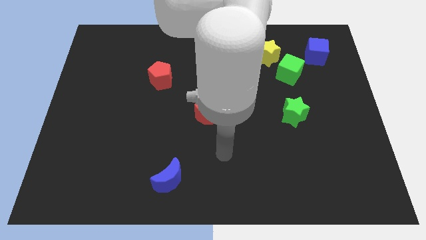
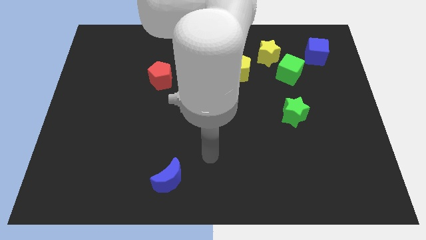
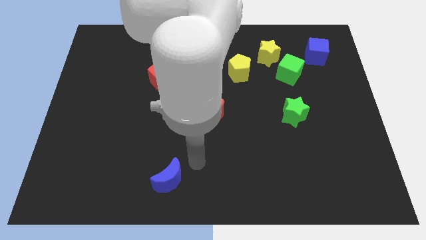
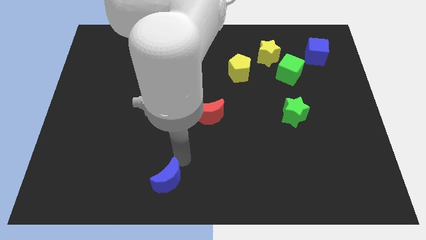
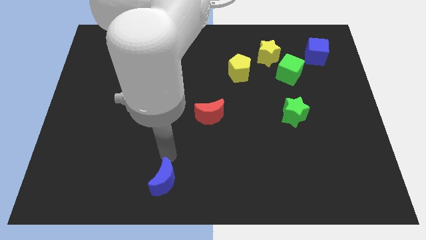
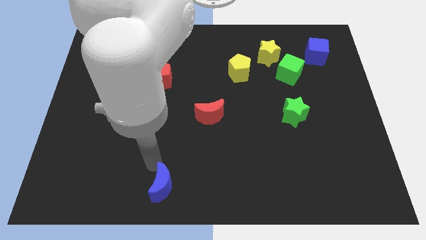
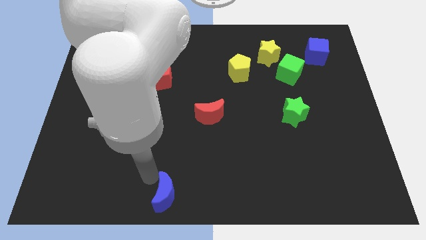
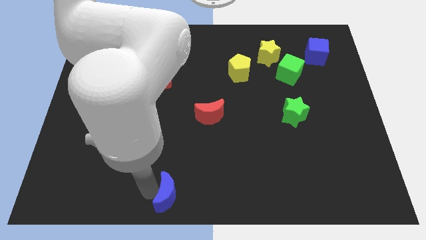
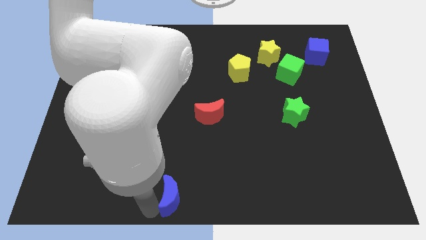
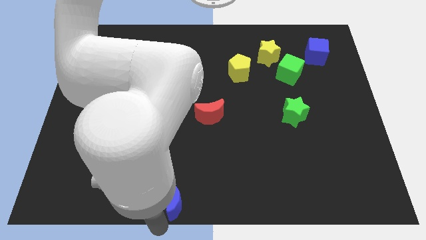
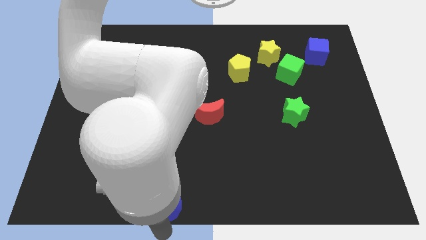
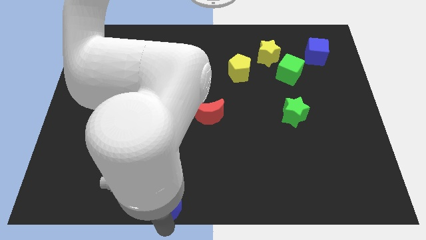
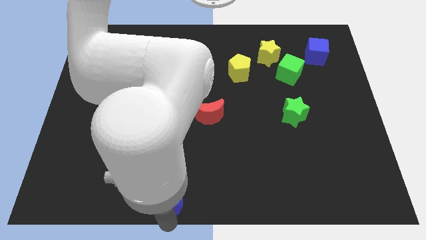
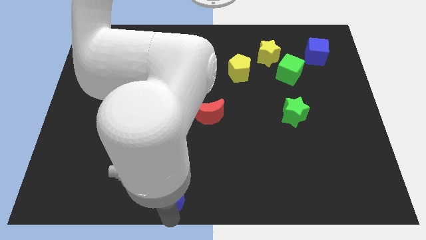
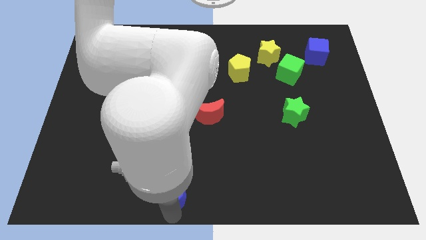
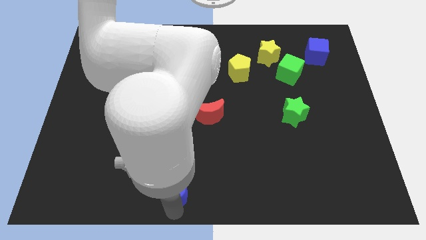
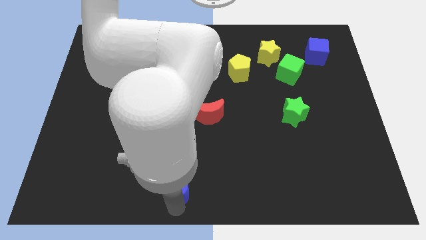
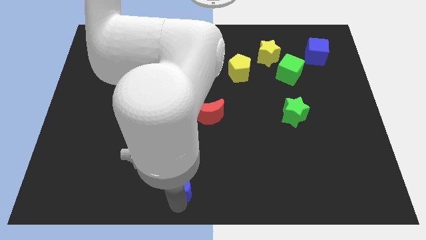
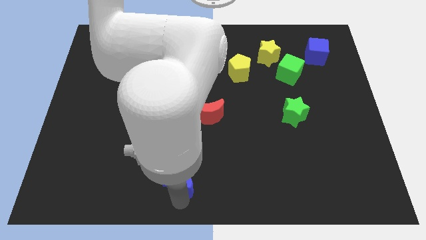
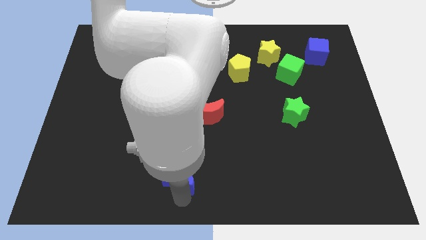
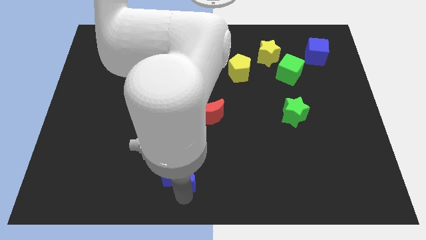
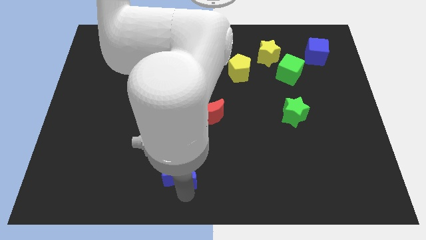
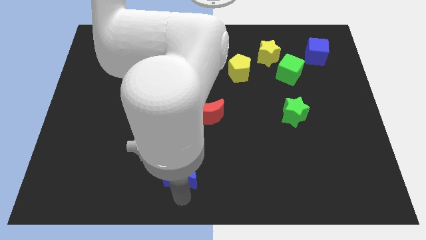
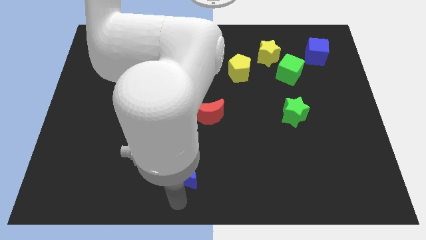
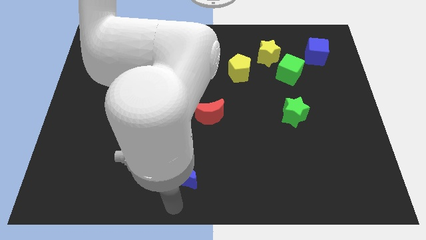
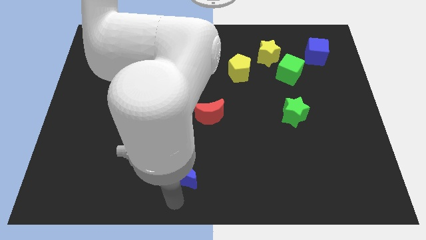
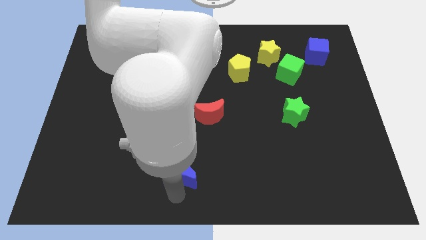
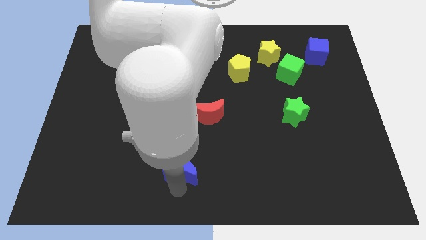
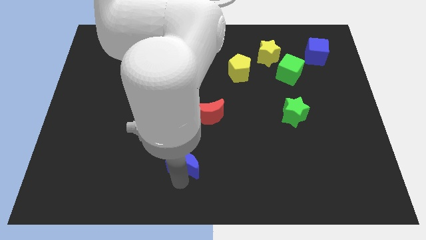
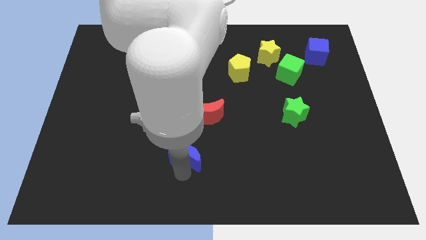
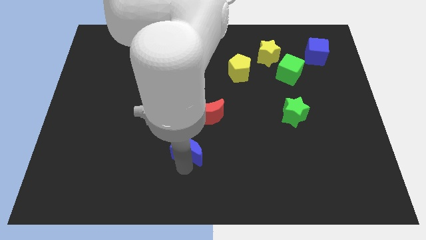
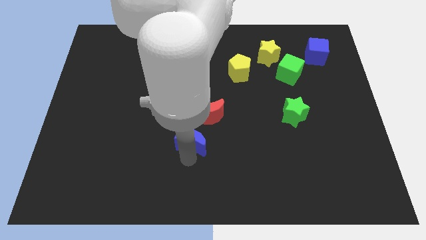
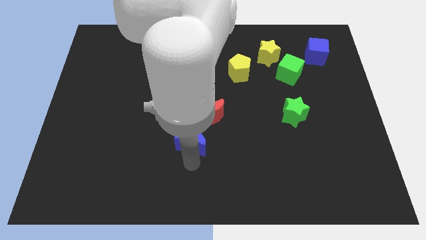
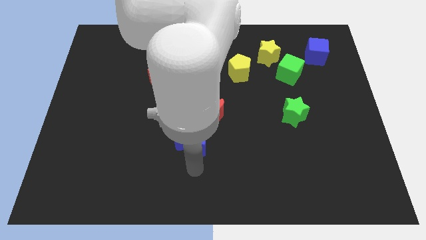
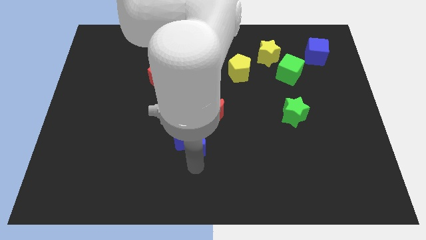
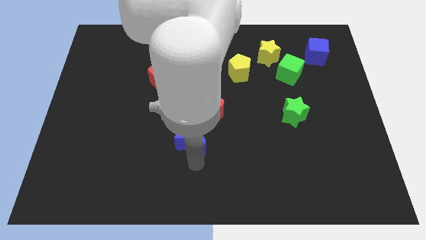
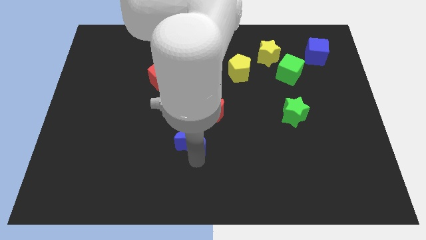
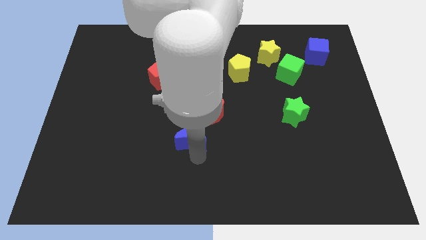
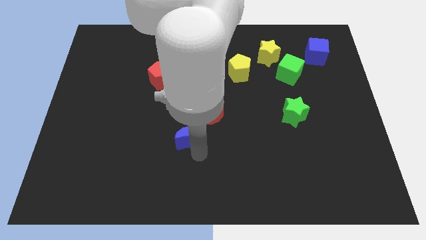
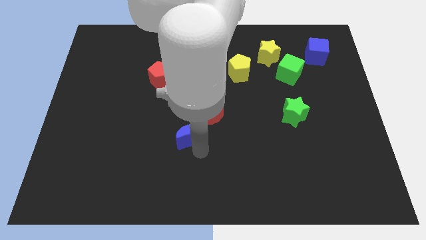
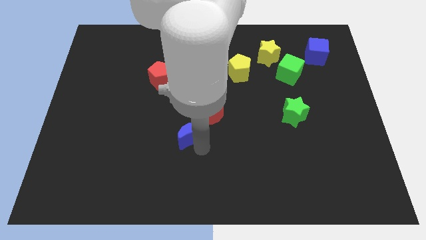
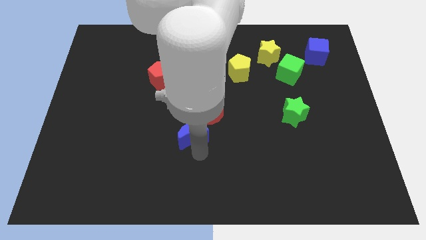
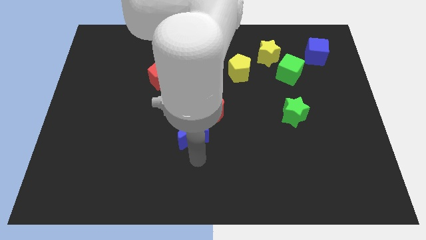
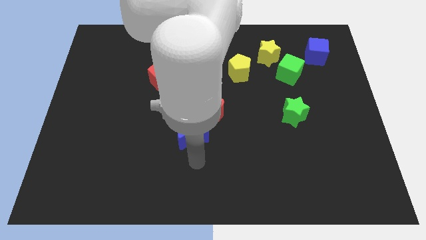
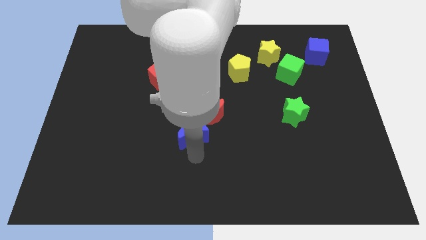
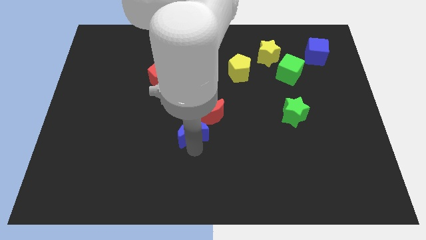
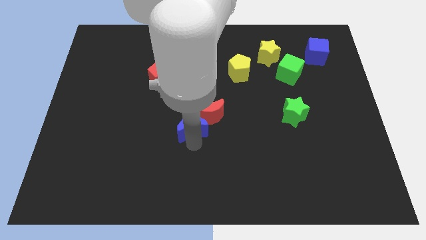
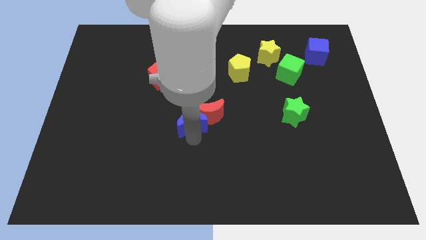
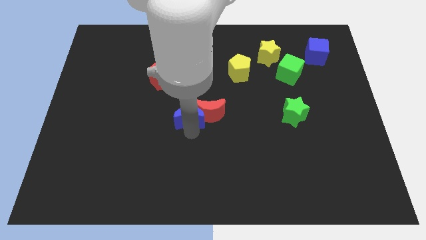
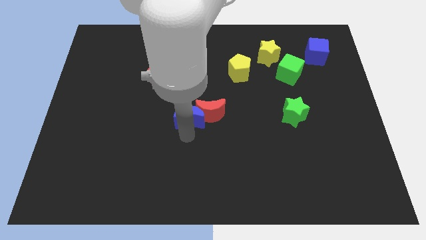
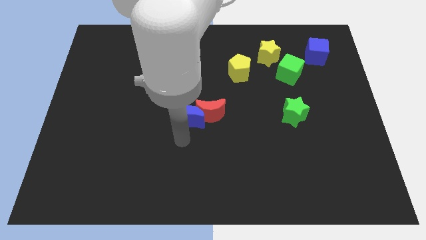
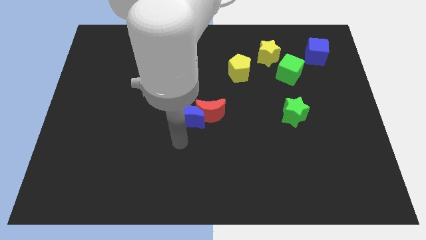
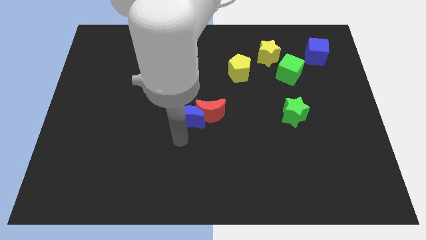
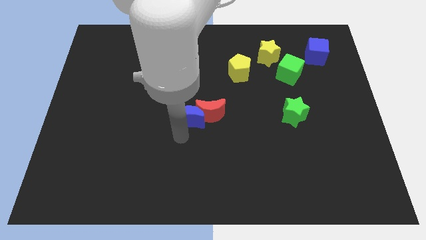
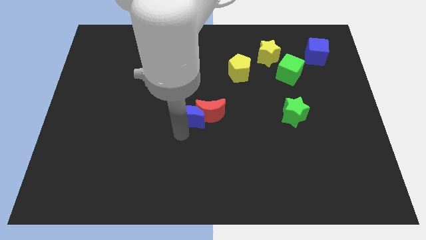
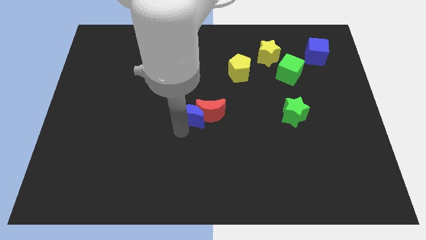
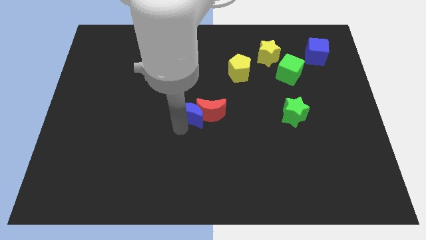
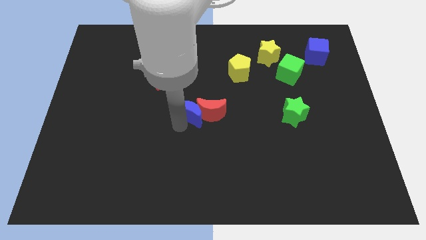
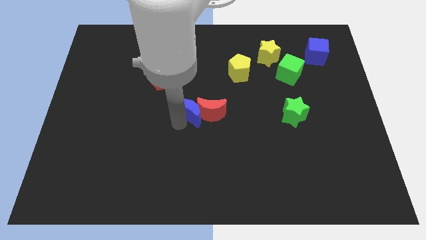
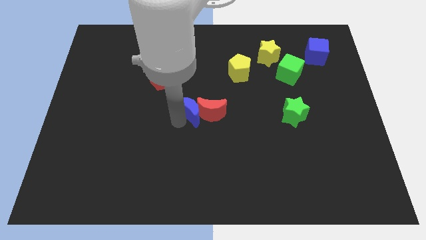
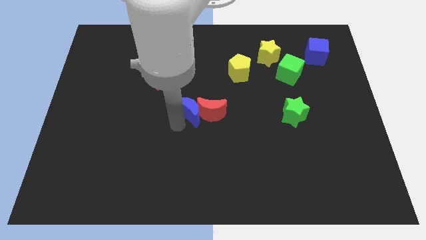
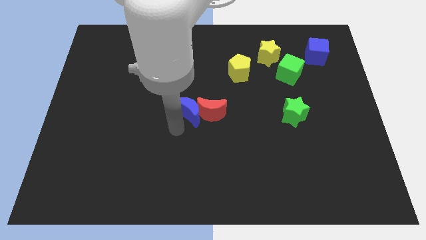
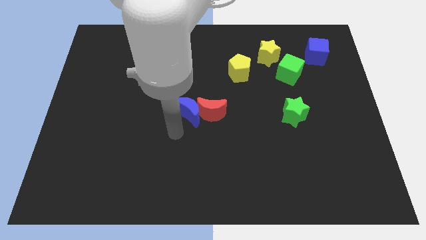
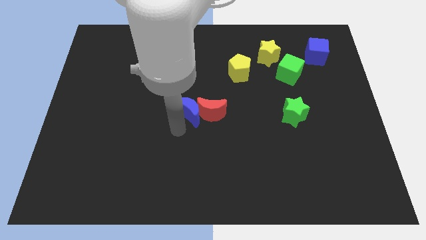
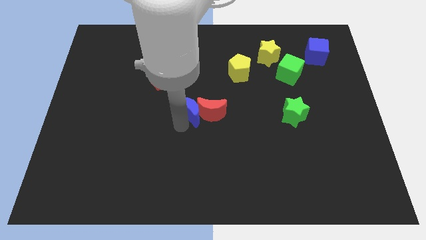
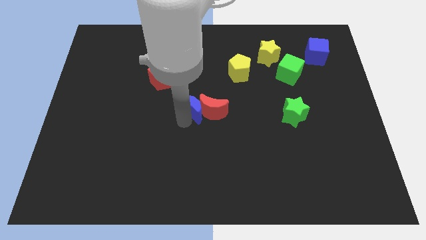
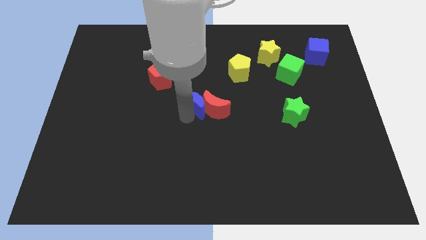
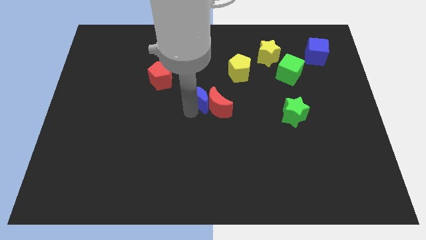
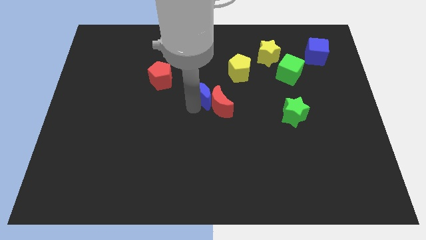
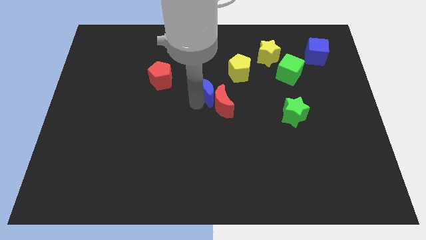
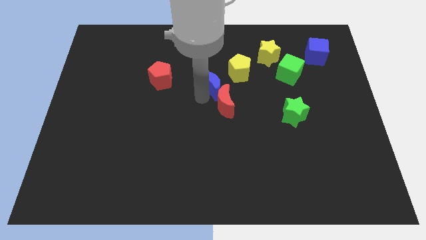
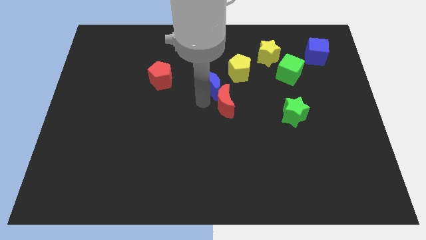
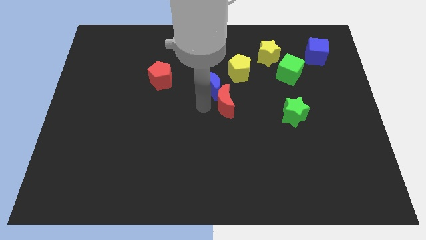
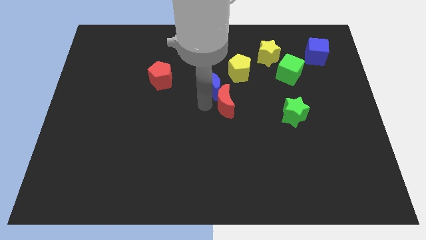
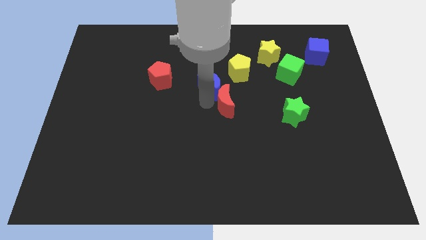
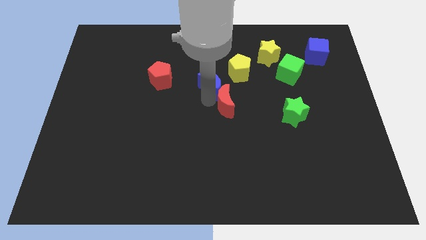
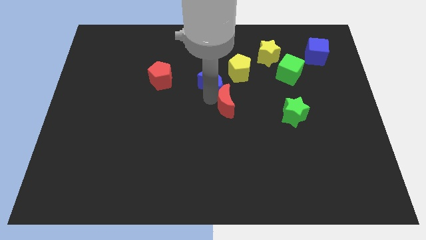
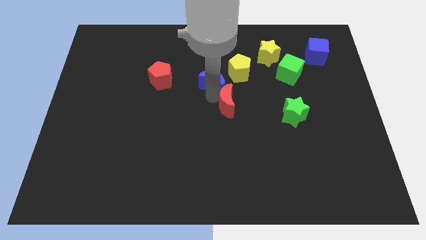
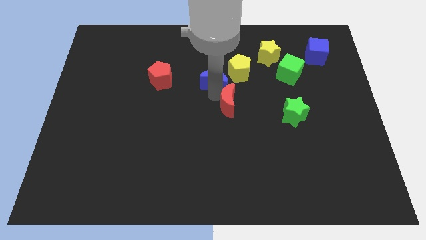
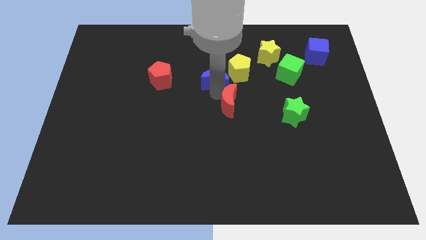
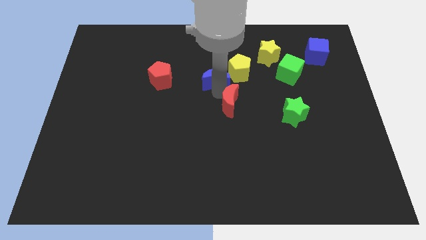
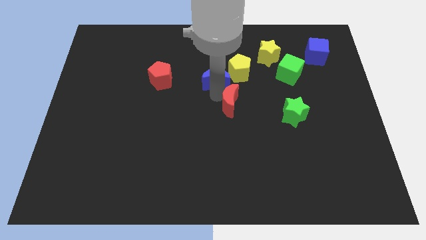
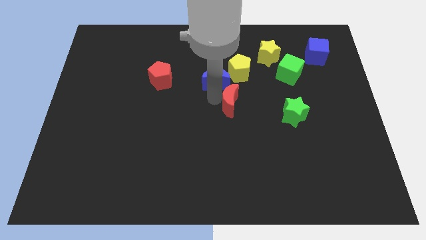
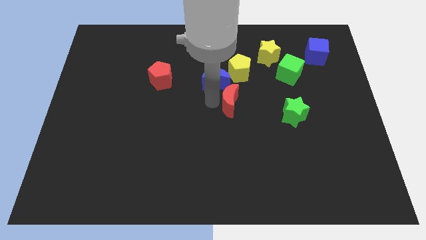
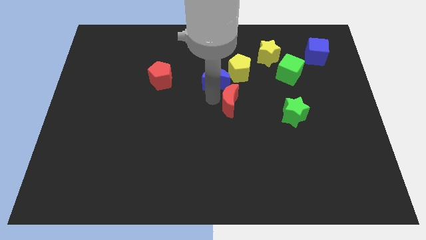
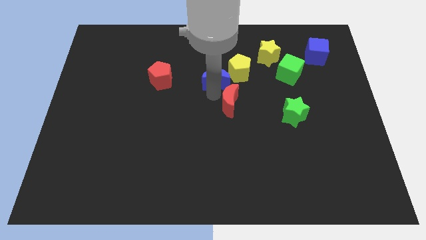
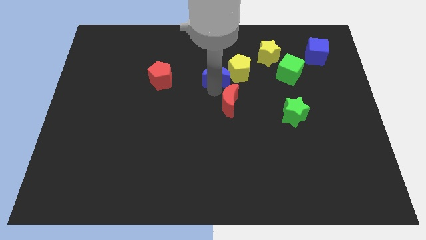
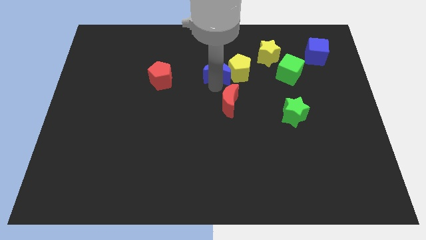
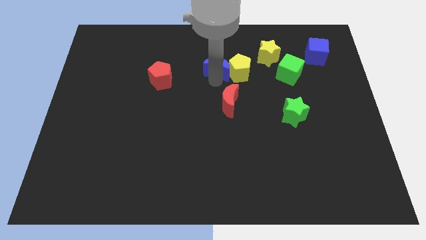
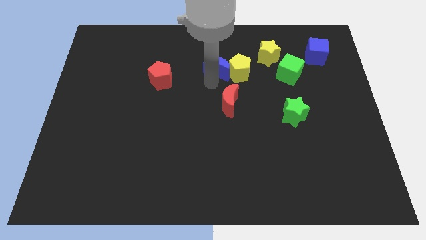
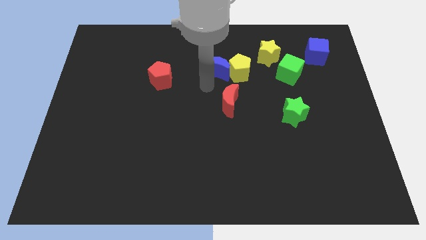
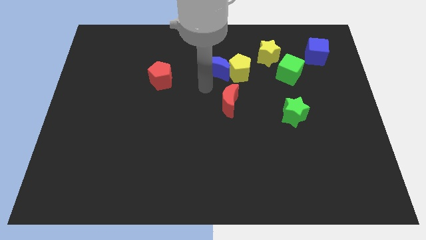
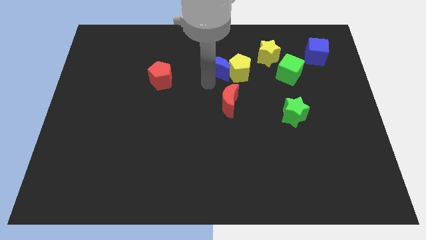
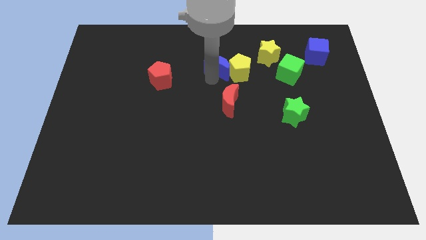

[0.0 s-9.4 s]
put the blue moon to the left side of the yellow star
